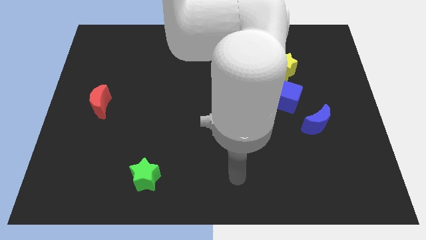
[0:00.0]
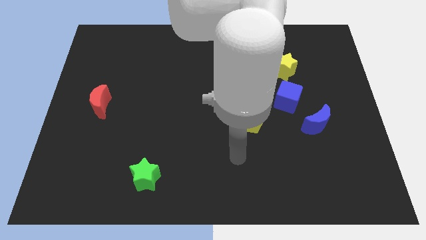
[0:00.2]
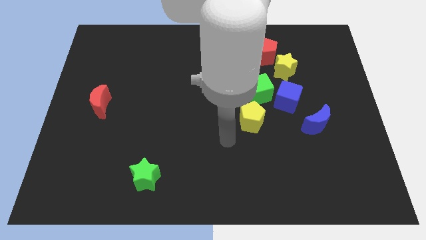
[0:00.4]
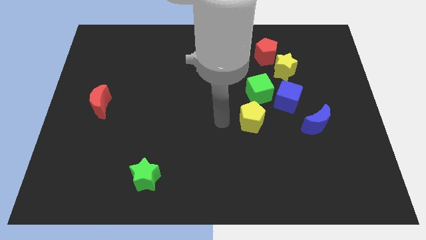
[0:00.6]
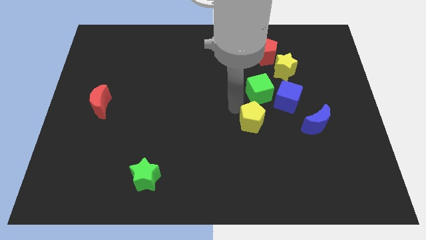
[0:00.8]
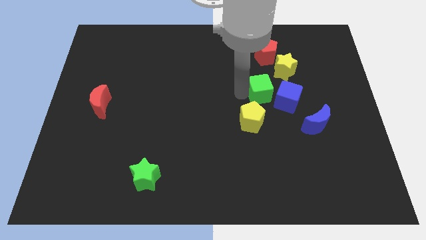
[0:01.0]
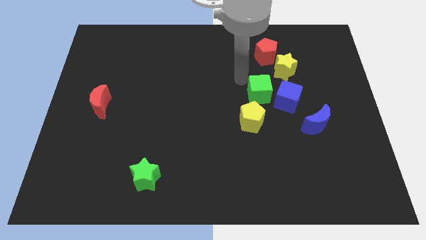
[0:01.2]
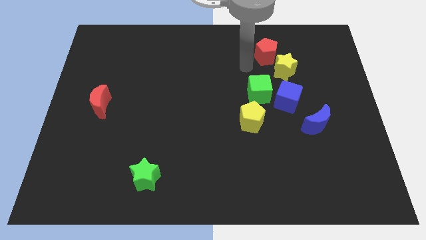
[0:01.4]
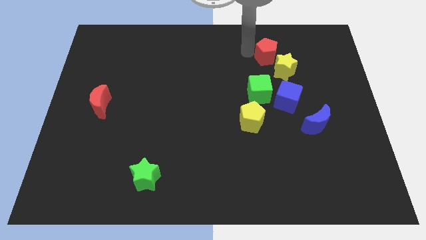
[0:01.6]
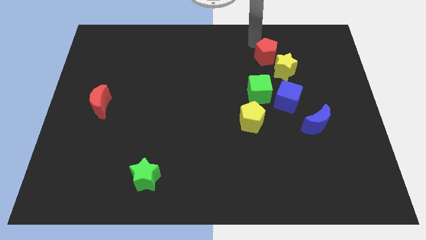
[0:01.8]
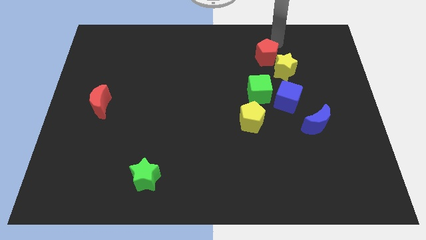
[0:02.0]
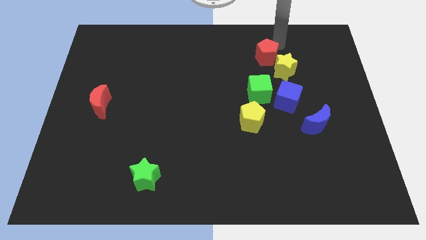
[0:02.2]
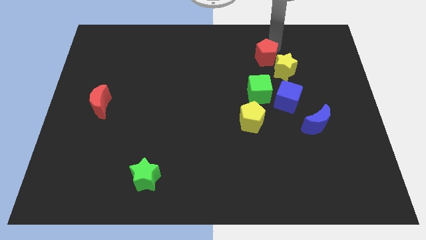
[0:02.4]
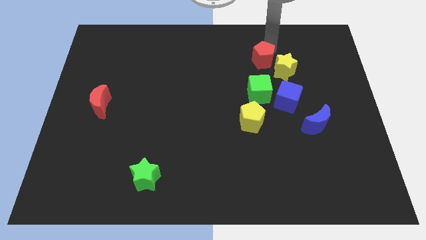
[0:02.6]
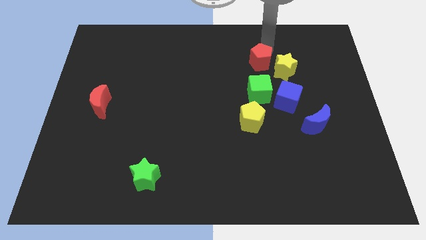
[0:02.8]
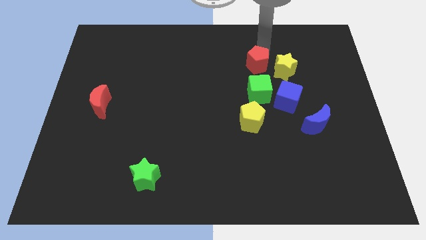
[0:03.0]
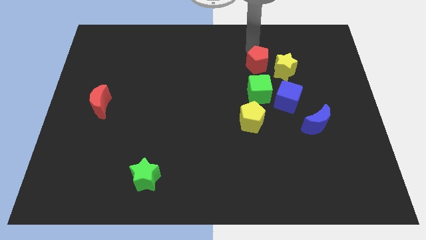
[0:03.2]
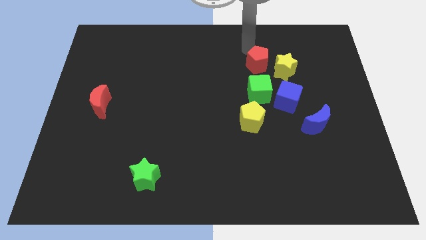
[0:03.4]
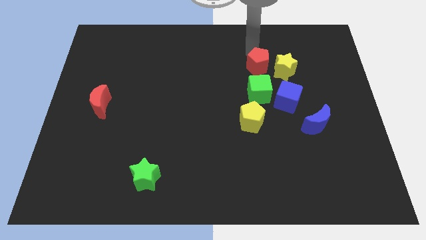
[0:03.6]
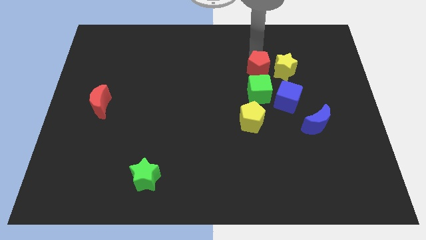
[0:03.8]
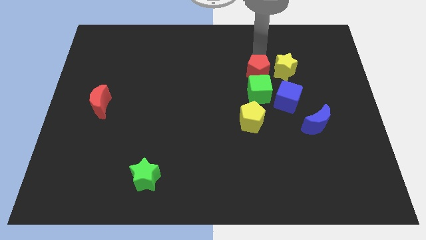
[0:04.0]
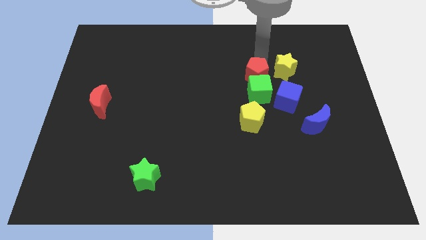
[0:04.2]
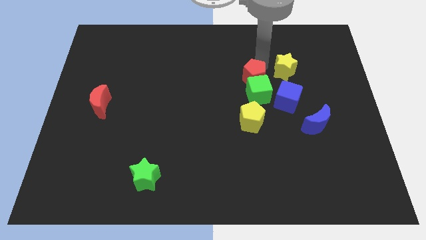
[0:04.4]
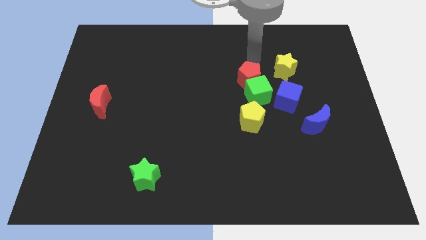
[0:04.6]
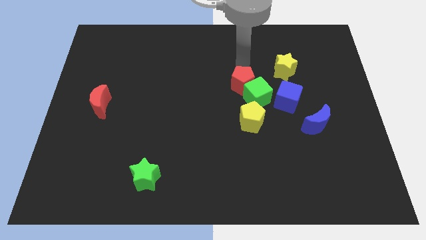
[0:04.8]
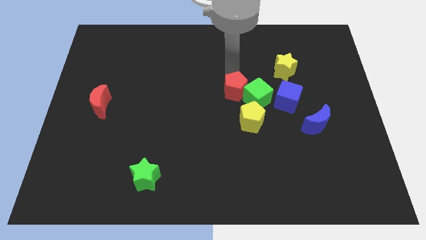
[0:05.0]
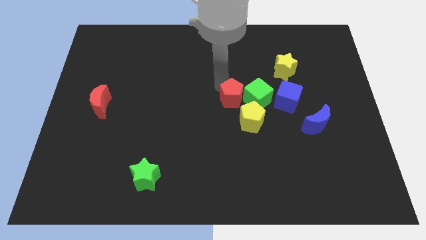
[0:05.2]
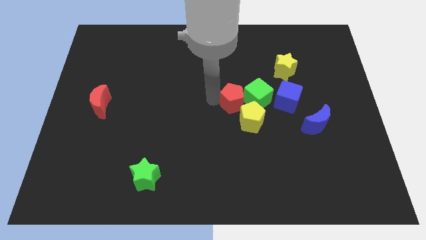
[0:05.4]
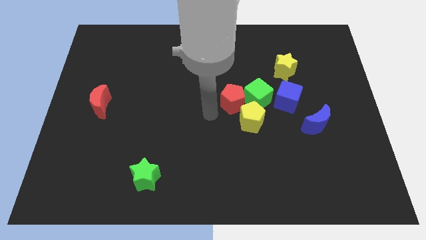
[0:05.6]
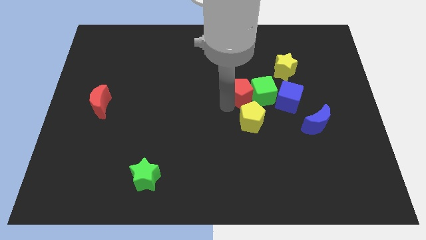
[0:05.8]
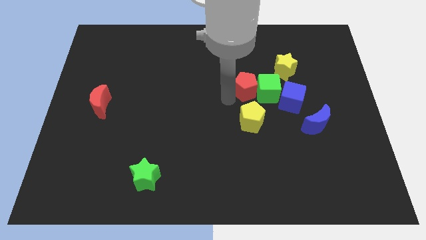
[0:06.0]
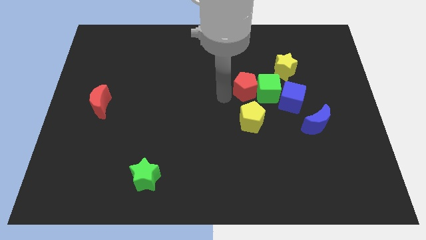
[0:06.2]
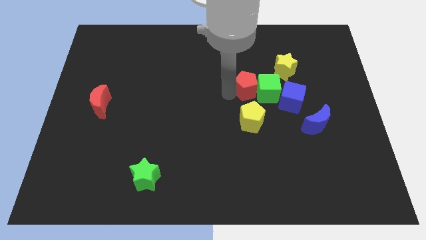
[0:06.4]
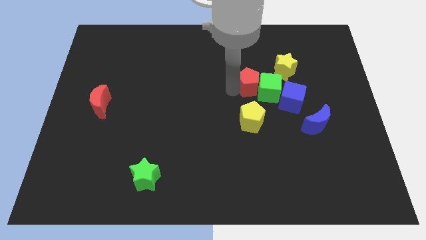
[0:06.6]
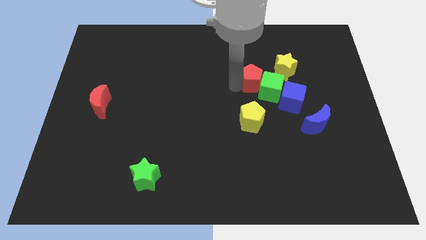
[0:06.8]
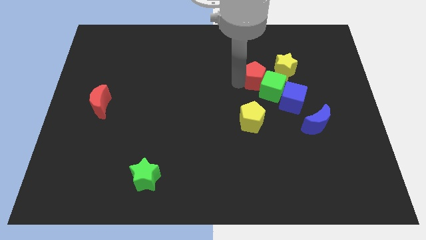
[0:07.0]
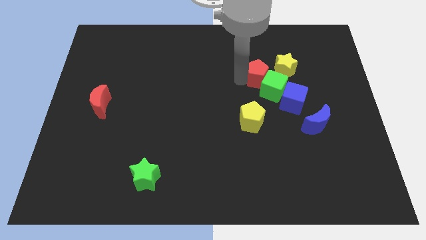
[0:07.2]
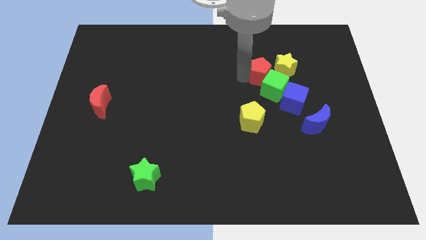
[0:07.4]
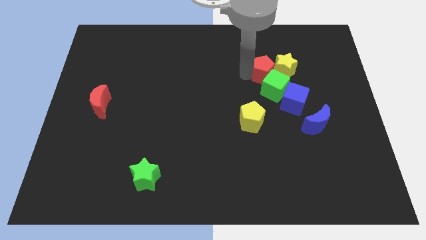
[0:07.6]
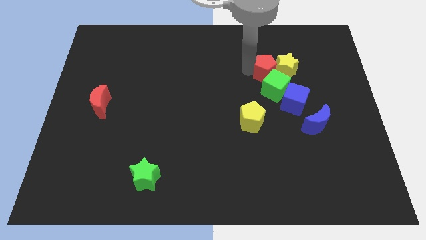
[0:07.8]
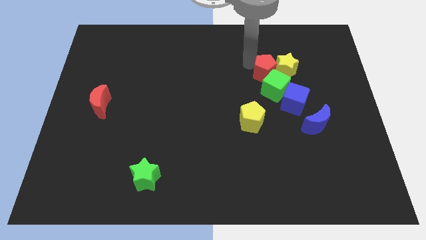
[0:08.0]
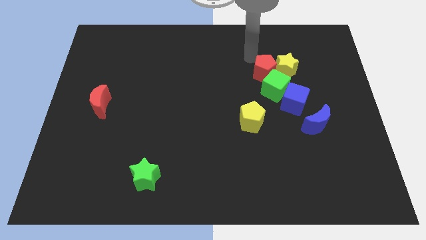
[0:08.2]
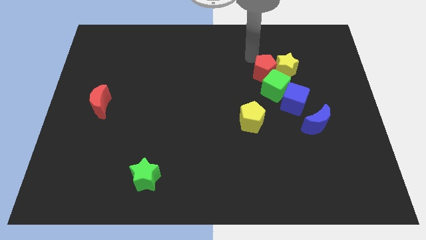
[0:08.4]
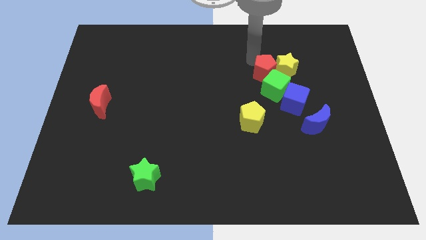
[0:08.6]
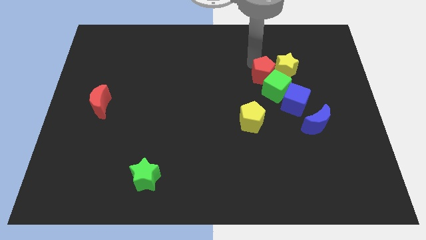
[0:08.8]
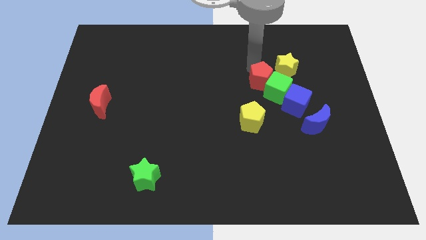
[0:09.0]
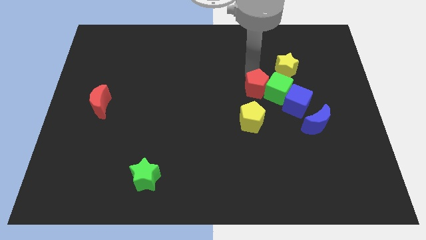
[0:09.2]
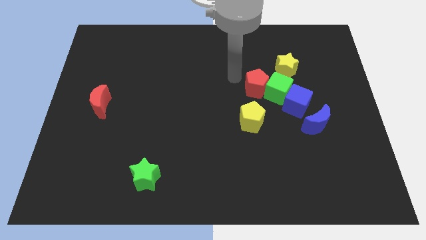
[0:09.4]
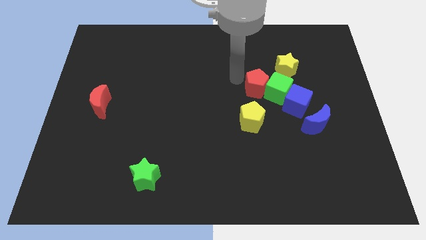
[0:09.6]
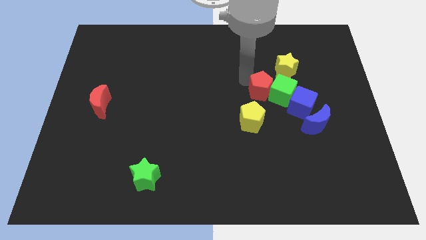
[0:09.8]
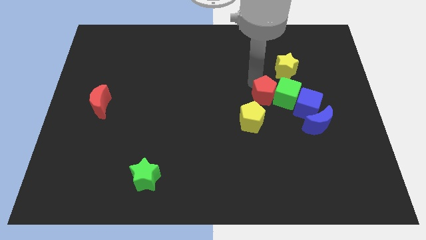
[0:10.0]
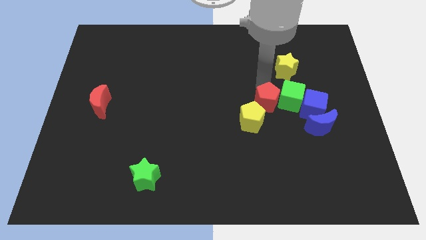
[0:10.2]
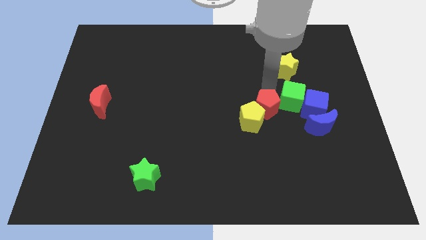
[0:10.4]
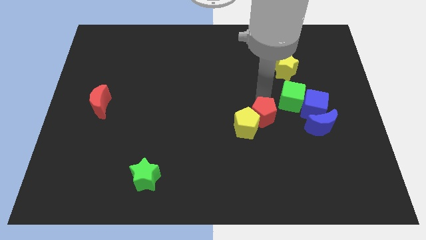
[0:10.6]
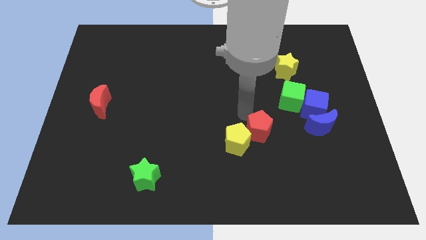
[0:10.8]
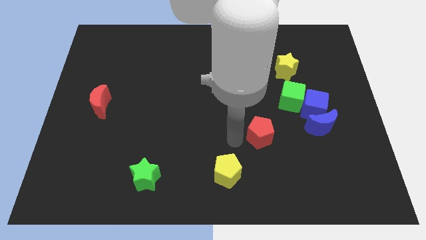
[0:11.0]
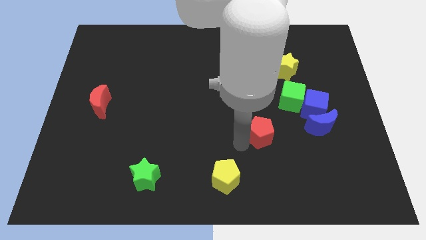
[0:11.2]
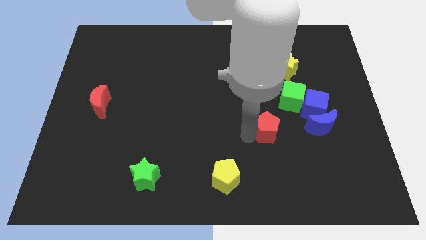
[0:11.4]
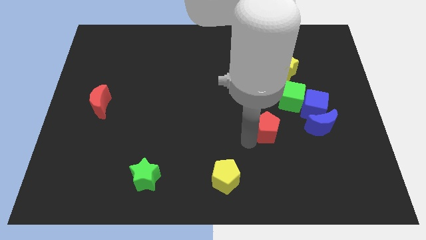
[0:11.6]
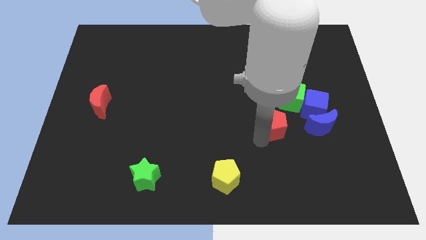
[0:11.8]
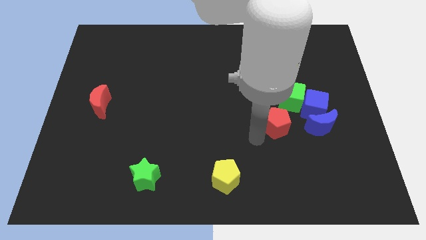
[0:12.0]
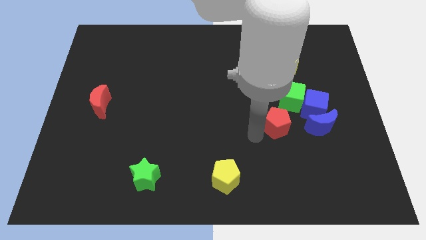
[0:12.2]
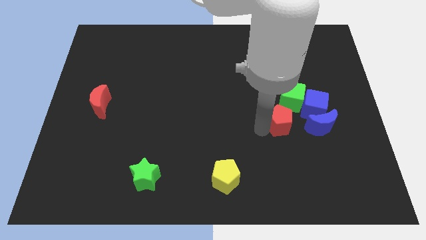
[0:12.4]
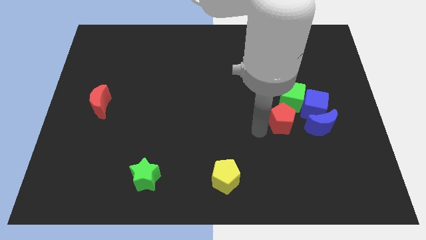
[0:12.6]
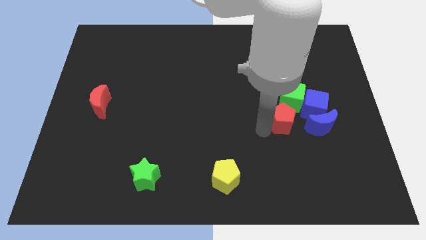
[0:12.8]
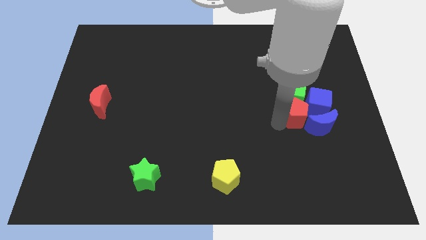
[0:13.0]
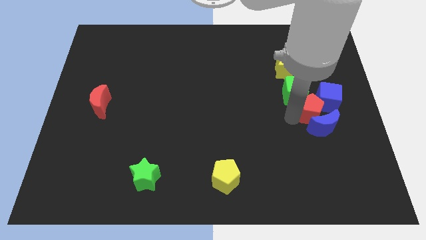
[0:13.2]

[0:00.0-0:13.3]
slide the red pentagon to the blue cube
